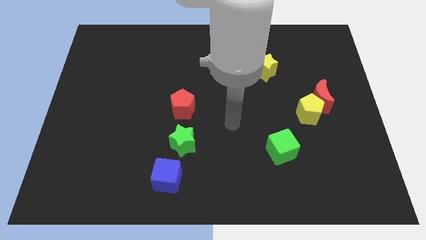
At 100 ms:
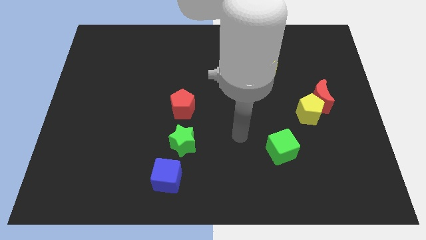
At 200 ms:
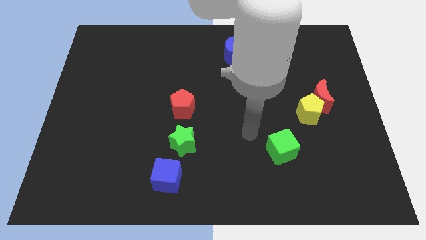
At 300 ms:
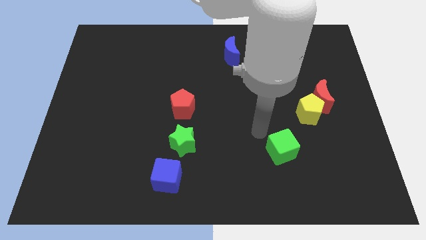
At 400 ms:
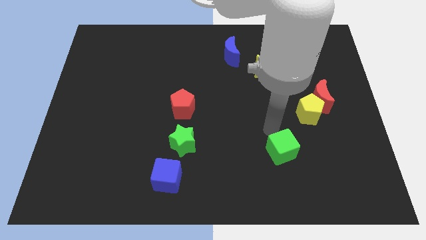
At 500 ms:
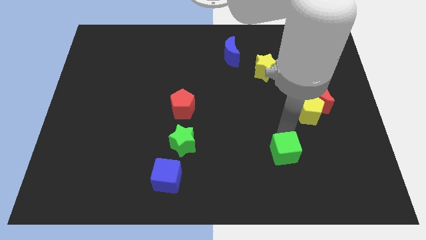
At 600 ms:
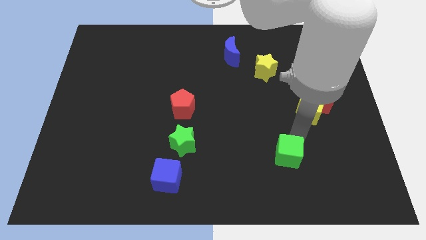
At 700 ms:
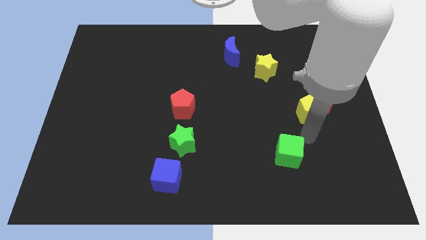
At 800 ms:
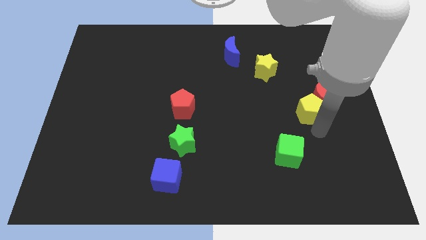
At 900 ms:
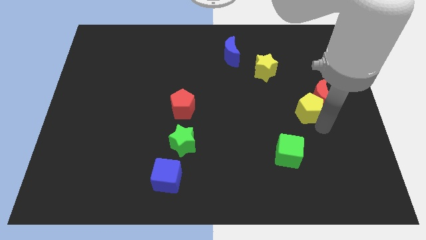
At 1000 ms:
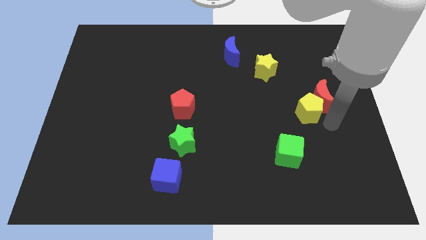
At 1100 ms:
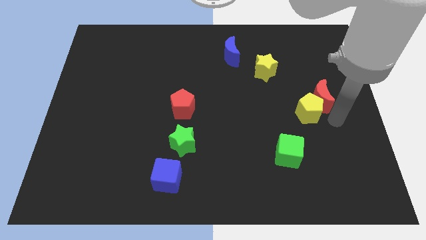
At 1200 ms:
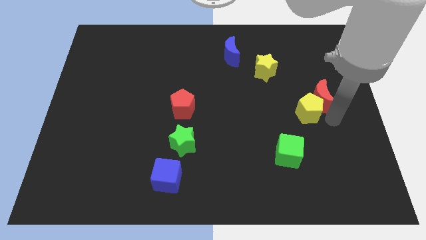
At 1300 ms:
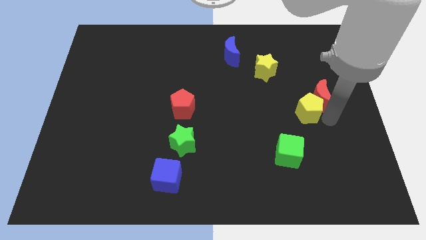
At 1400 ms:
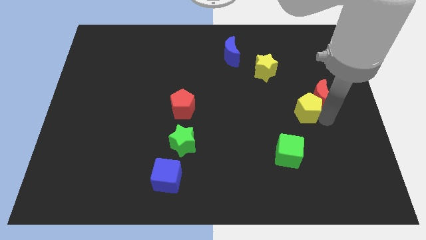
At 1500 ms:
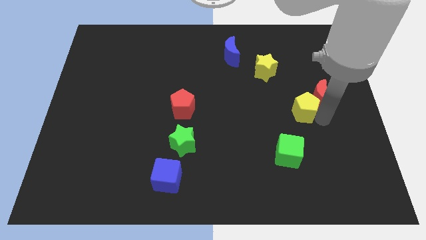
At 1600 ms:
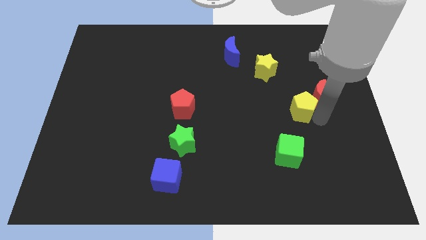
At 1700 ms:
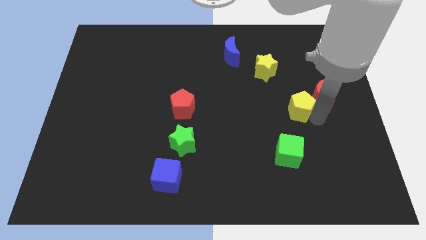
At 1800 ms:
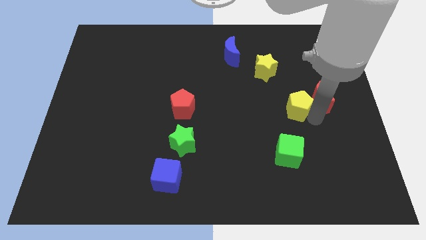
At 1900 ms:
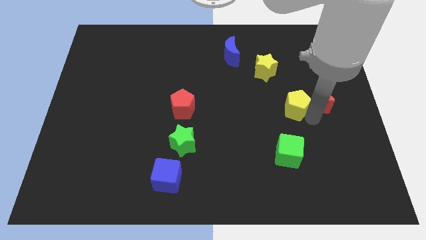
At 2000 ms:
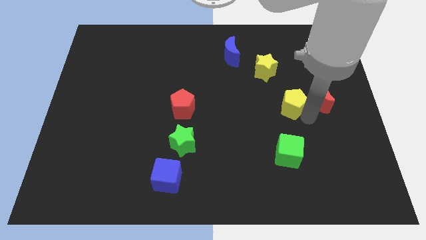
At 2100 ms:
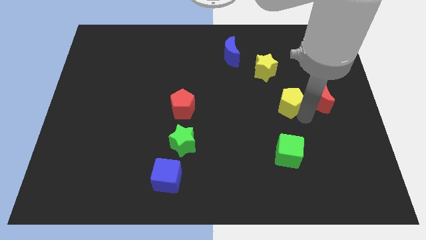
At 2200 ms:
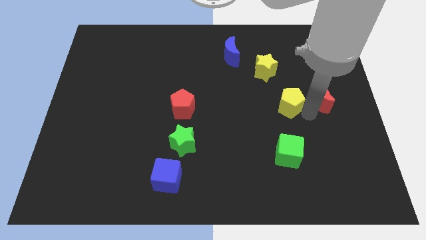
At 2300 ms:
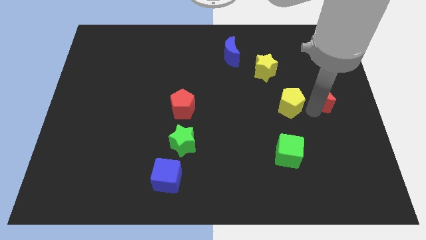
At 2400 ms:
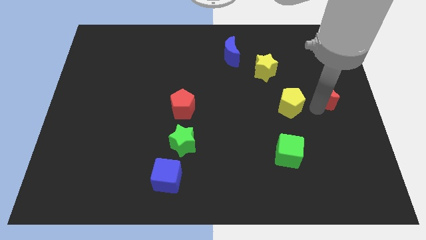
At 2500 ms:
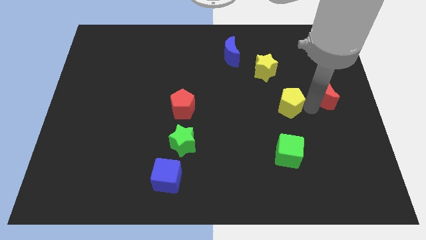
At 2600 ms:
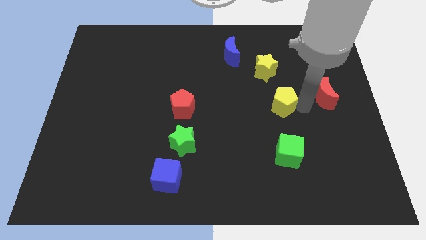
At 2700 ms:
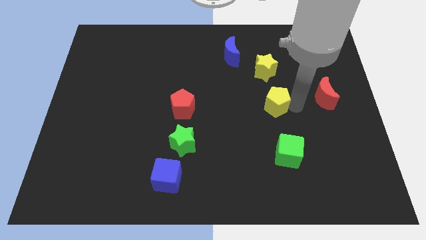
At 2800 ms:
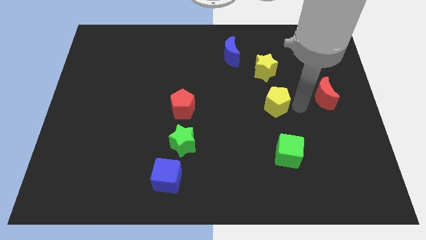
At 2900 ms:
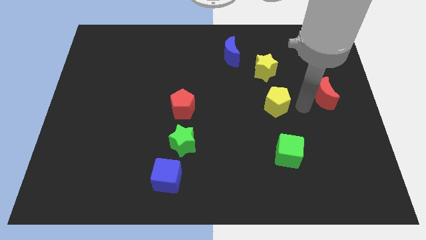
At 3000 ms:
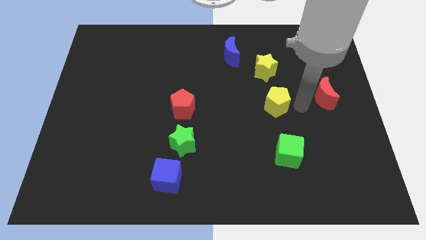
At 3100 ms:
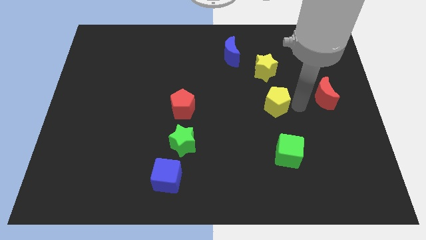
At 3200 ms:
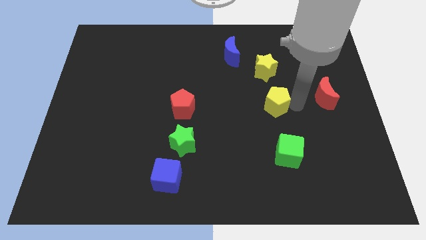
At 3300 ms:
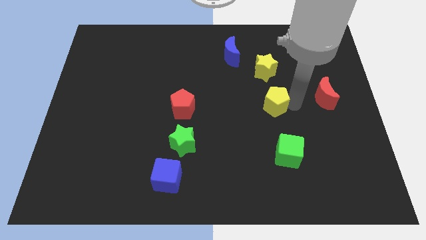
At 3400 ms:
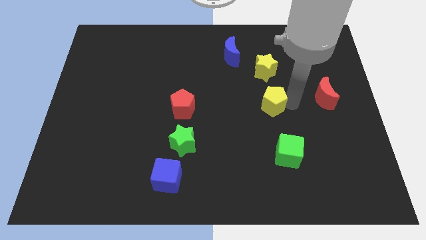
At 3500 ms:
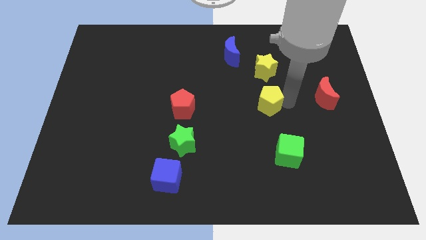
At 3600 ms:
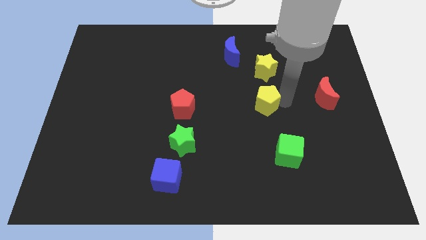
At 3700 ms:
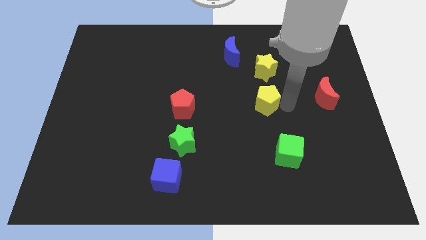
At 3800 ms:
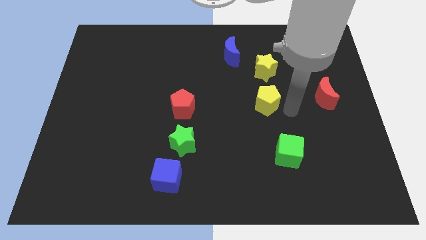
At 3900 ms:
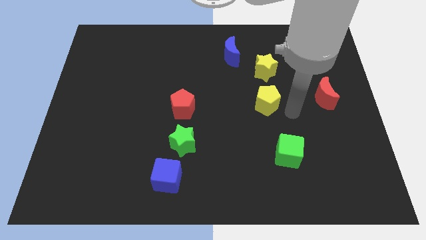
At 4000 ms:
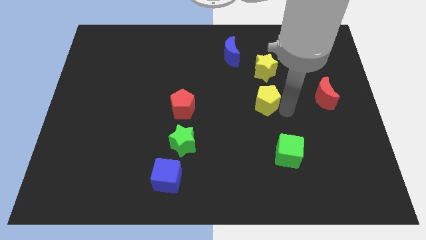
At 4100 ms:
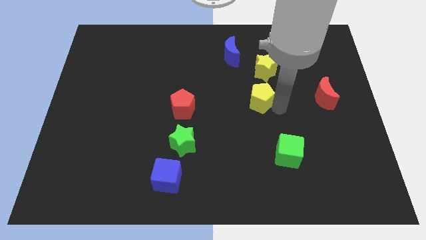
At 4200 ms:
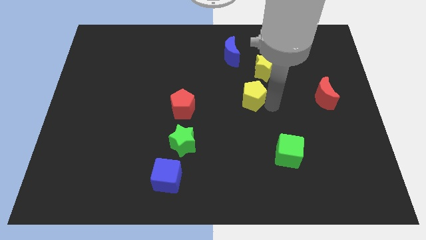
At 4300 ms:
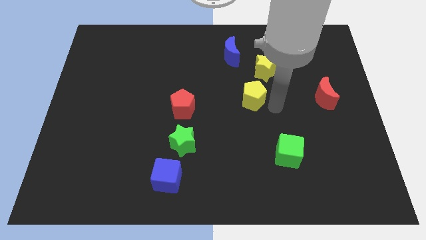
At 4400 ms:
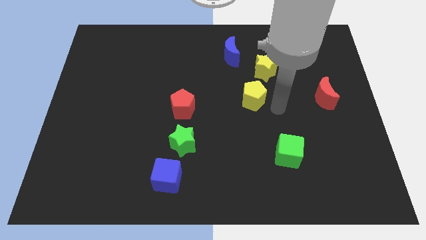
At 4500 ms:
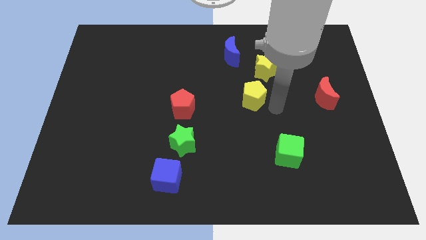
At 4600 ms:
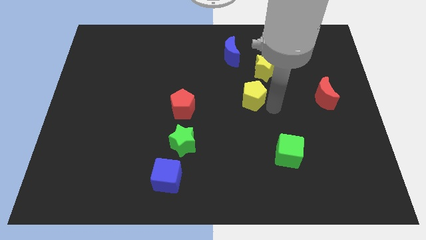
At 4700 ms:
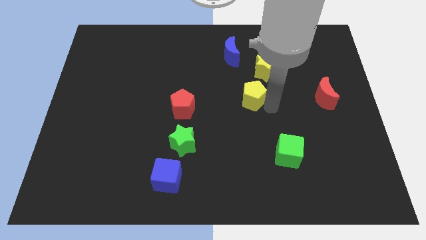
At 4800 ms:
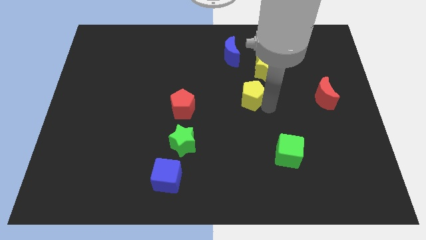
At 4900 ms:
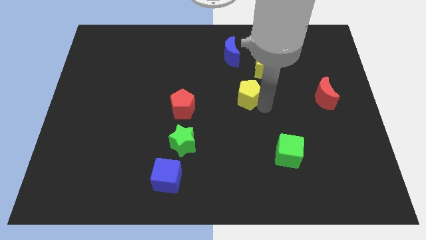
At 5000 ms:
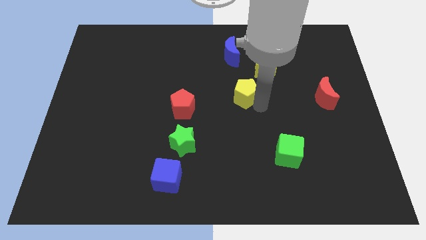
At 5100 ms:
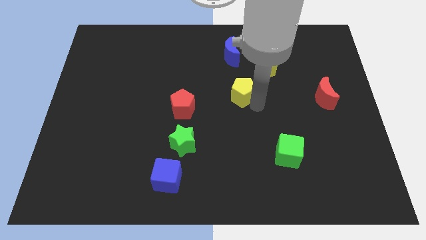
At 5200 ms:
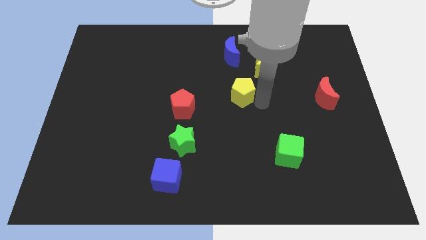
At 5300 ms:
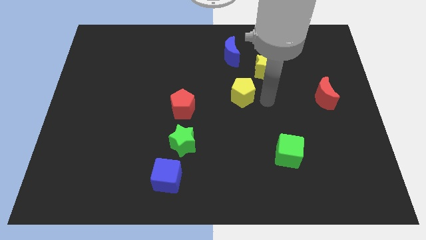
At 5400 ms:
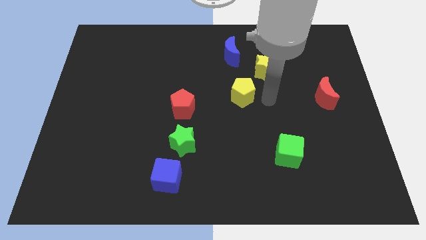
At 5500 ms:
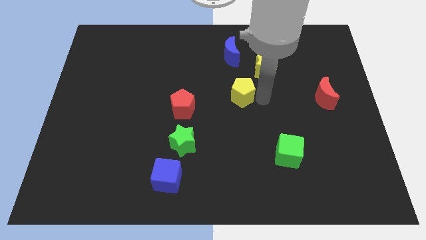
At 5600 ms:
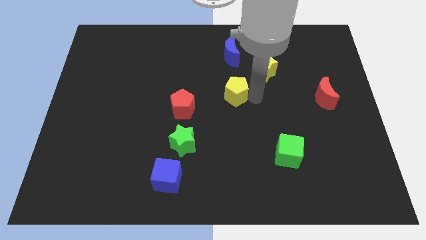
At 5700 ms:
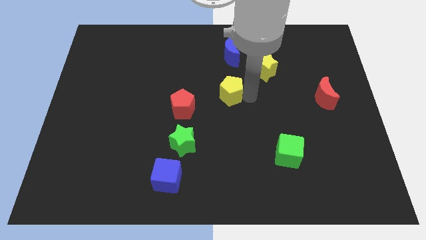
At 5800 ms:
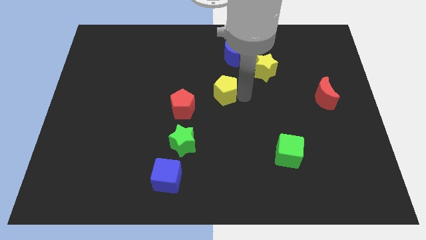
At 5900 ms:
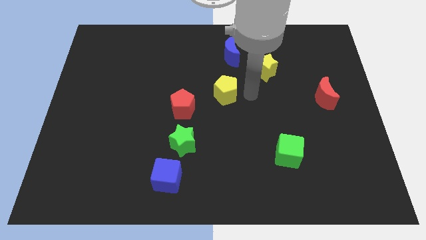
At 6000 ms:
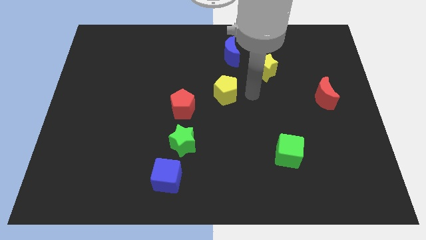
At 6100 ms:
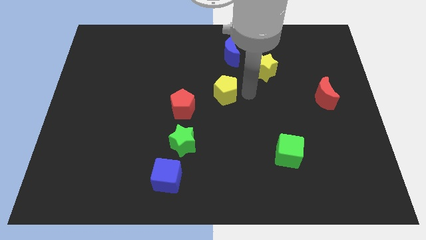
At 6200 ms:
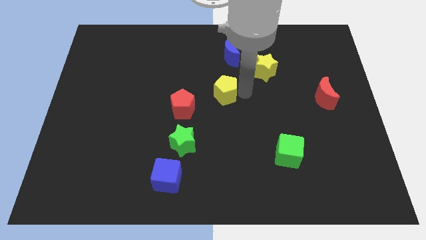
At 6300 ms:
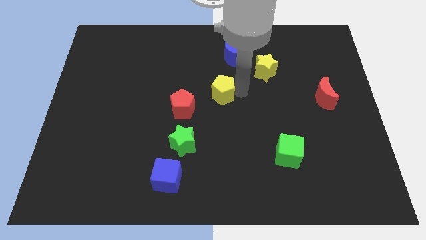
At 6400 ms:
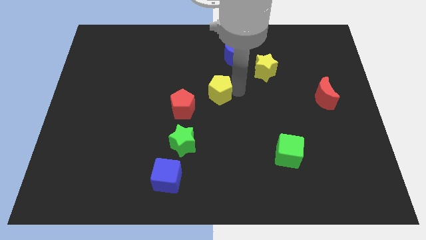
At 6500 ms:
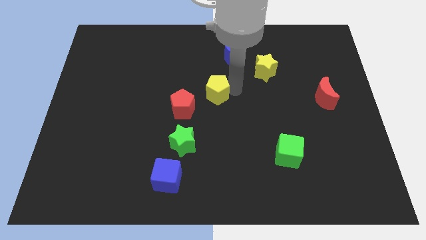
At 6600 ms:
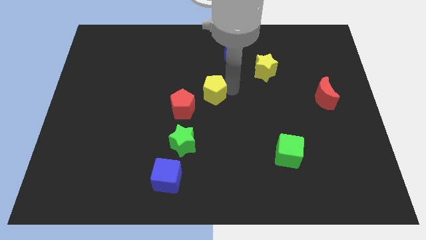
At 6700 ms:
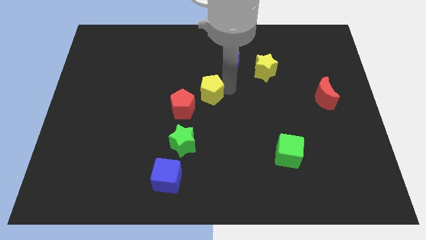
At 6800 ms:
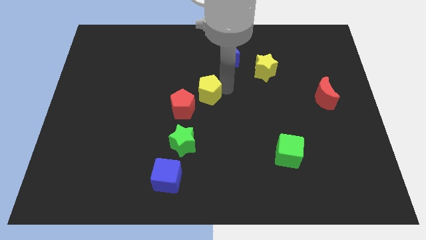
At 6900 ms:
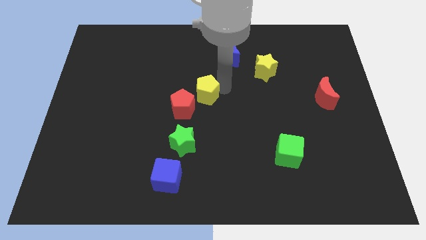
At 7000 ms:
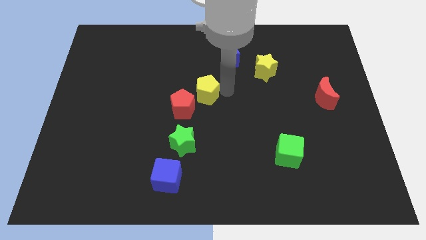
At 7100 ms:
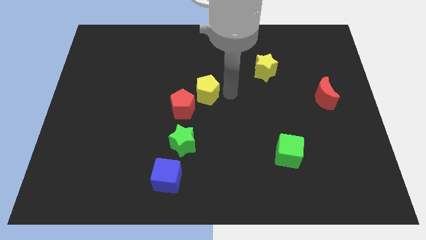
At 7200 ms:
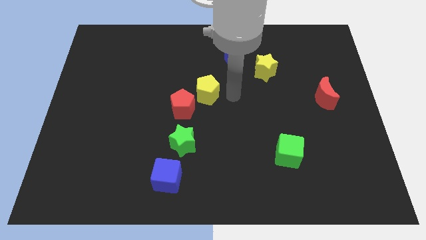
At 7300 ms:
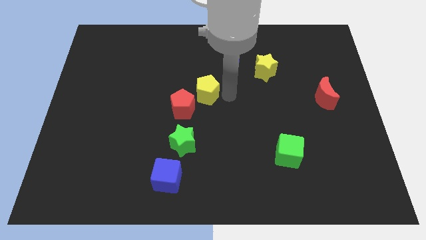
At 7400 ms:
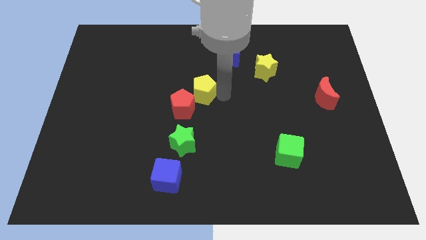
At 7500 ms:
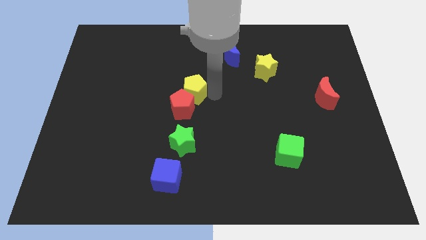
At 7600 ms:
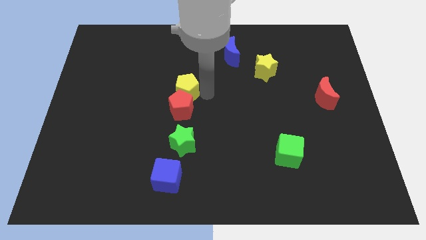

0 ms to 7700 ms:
slide the yellow pentagon to the top left side of the red pentagon
